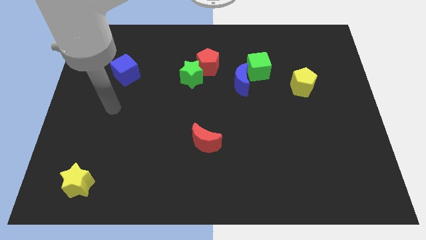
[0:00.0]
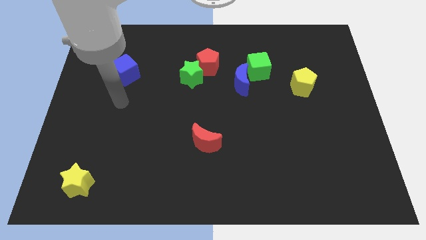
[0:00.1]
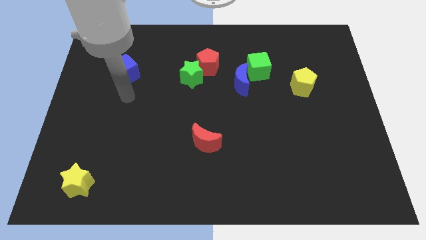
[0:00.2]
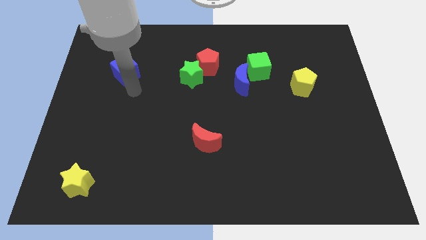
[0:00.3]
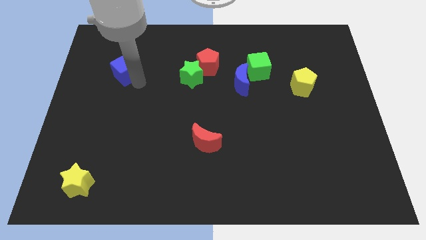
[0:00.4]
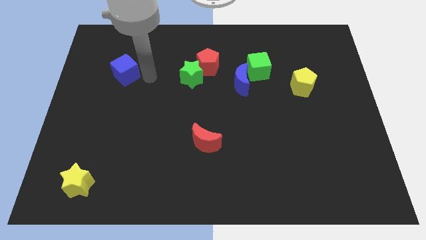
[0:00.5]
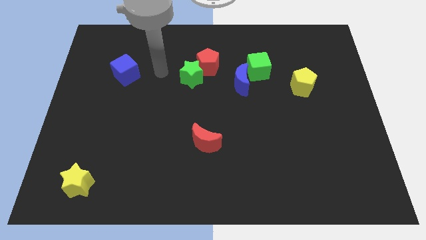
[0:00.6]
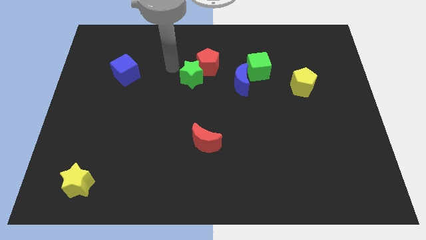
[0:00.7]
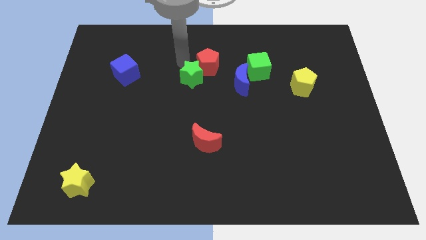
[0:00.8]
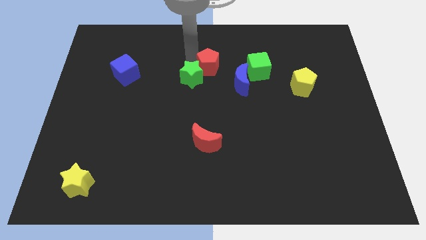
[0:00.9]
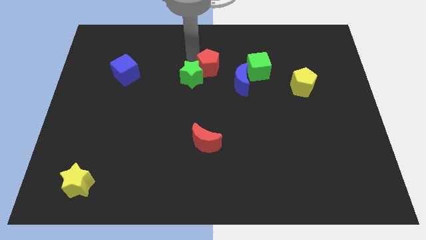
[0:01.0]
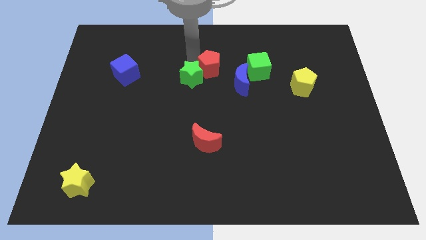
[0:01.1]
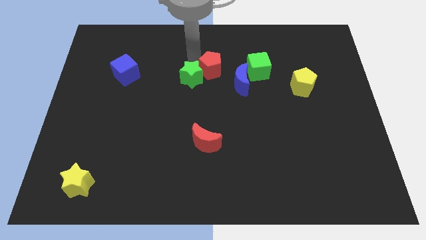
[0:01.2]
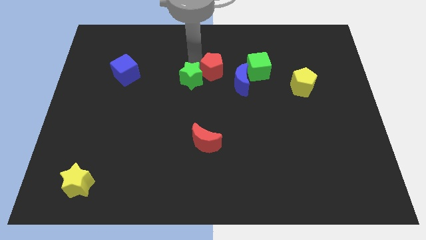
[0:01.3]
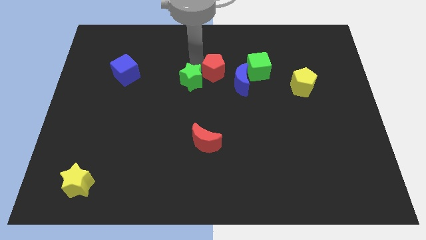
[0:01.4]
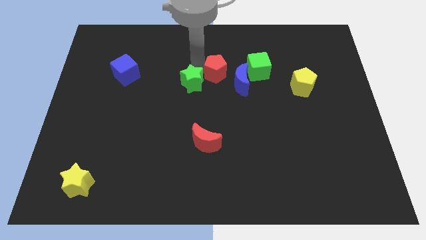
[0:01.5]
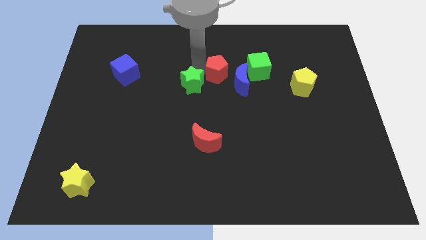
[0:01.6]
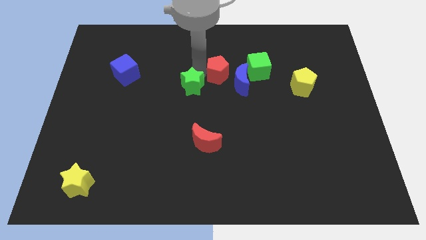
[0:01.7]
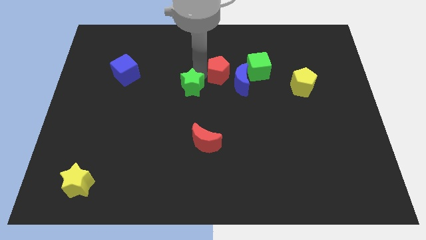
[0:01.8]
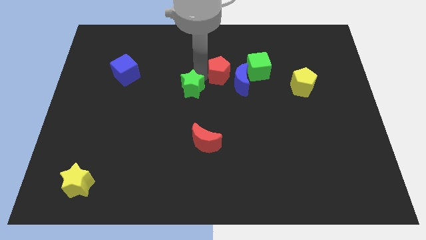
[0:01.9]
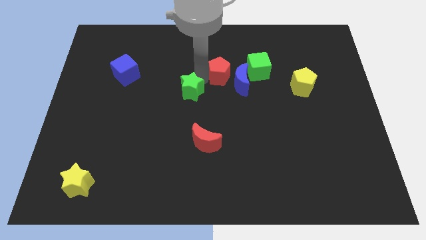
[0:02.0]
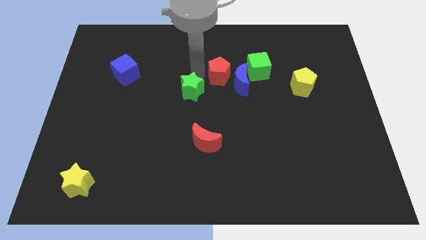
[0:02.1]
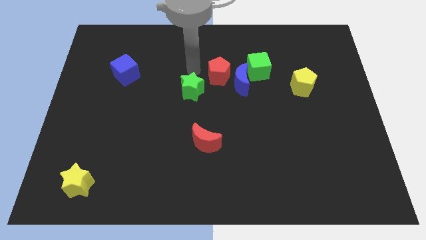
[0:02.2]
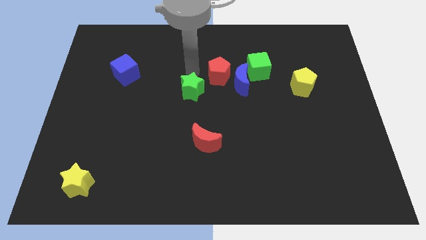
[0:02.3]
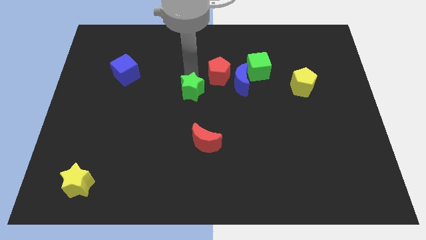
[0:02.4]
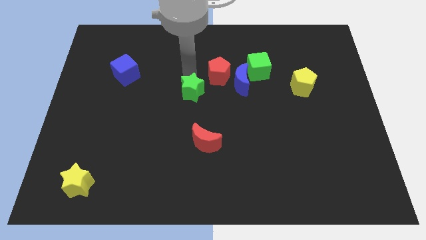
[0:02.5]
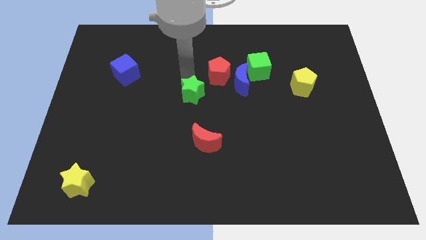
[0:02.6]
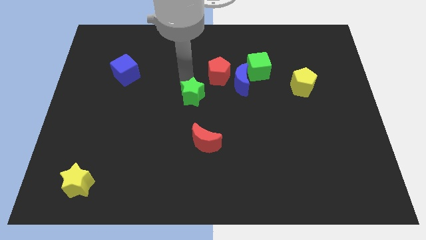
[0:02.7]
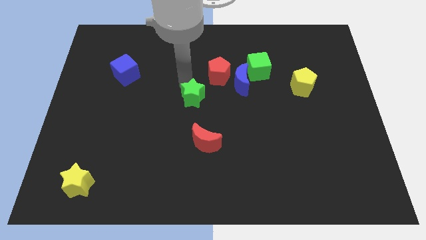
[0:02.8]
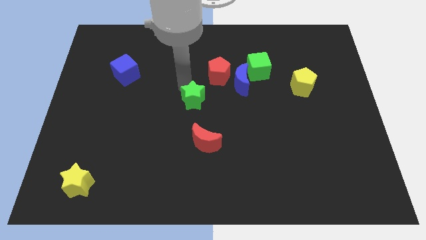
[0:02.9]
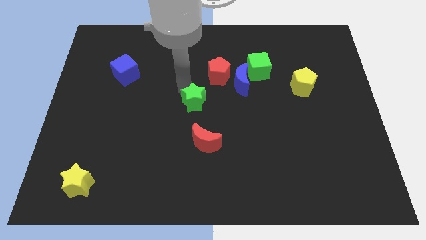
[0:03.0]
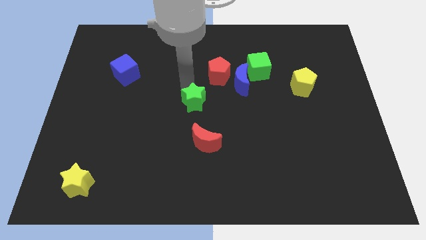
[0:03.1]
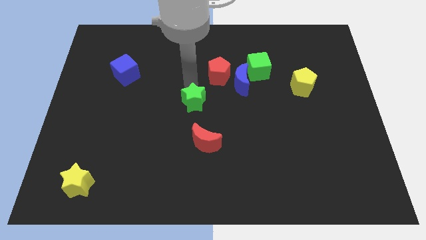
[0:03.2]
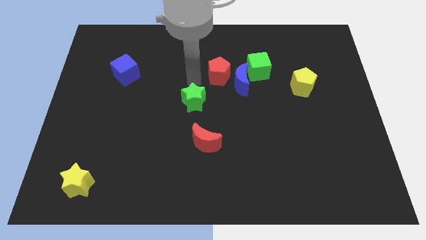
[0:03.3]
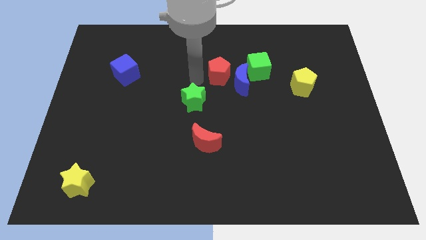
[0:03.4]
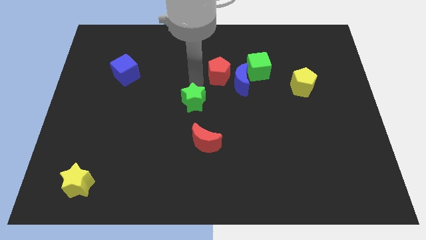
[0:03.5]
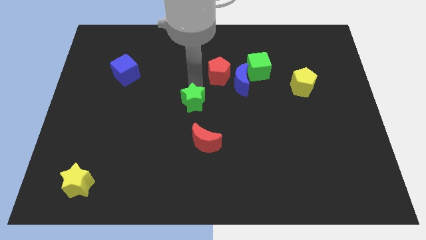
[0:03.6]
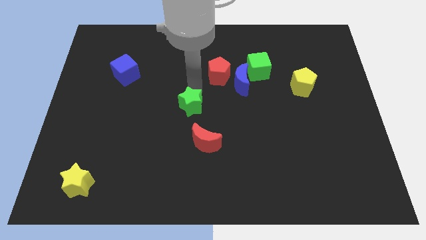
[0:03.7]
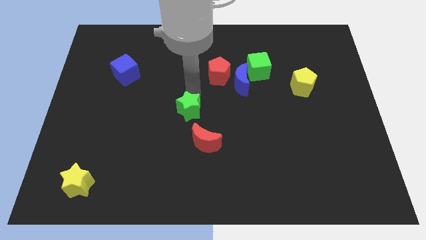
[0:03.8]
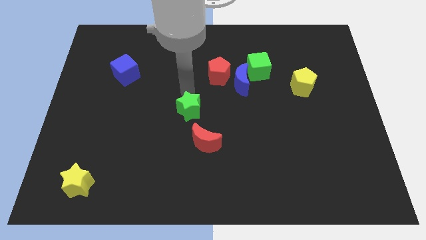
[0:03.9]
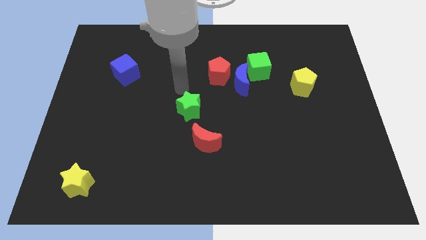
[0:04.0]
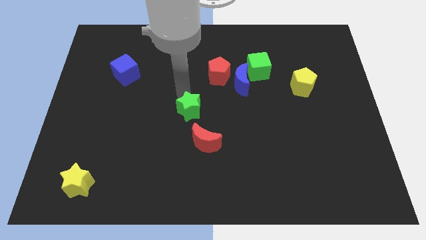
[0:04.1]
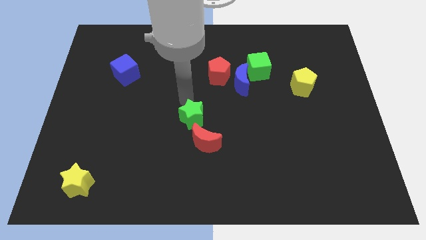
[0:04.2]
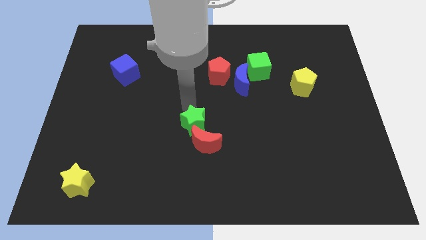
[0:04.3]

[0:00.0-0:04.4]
slide the green star next to the red moon

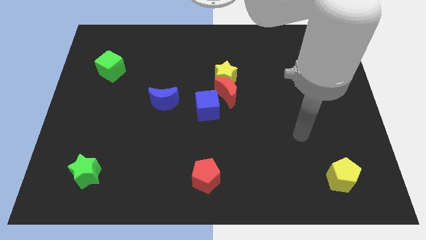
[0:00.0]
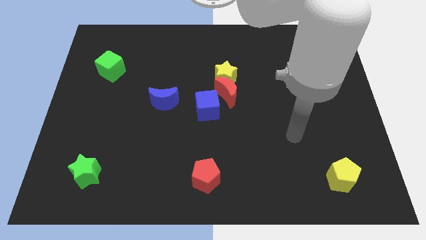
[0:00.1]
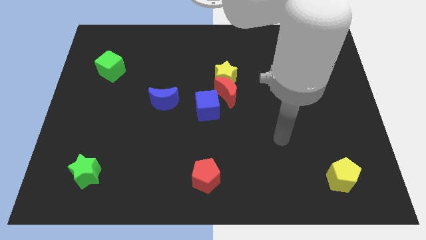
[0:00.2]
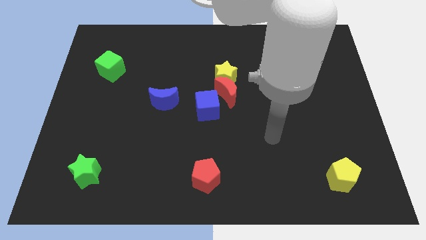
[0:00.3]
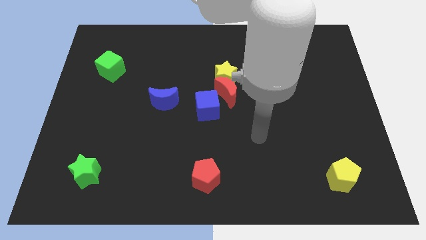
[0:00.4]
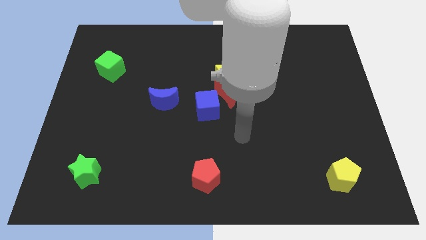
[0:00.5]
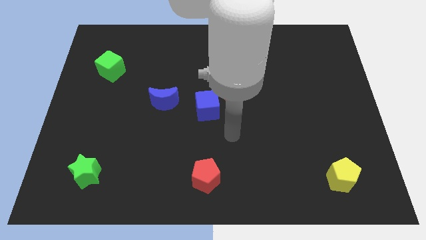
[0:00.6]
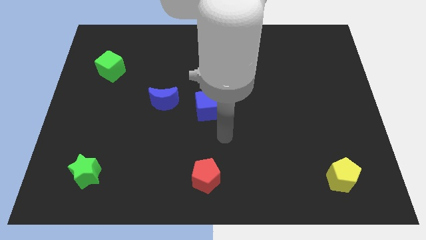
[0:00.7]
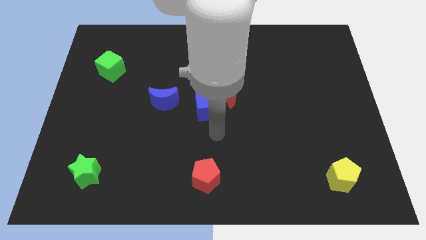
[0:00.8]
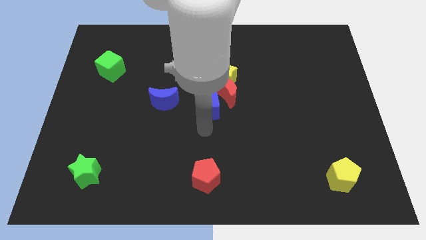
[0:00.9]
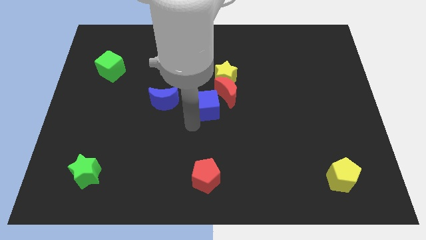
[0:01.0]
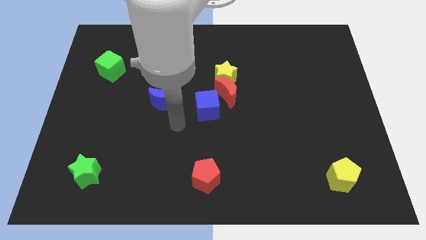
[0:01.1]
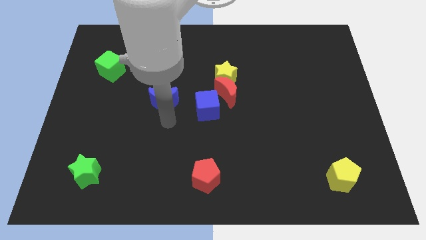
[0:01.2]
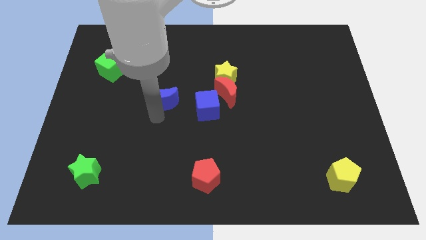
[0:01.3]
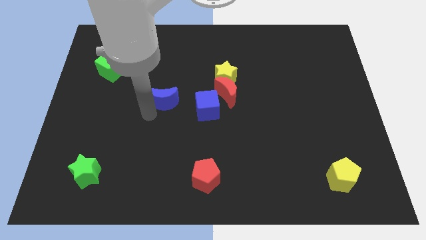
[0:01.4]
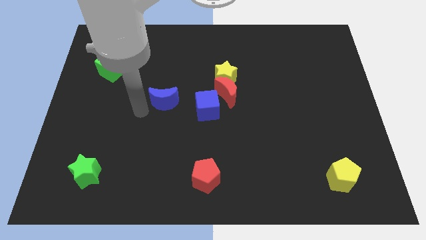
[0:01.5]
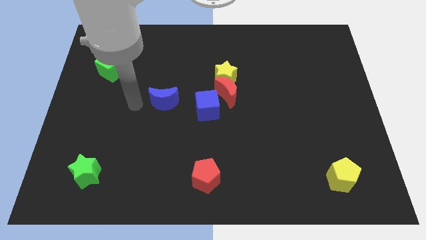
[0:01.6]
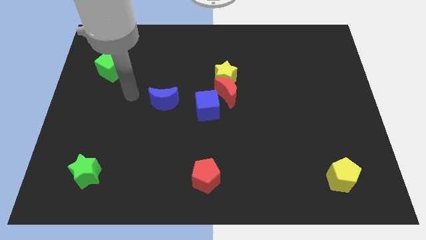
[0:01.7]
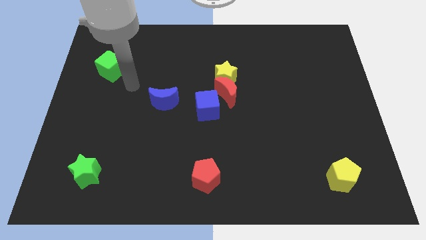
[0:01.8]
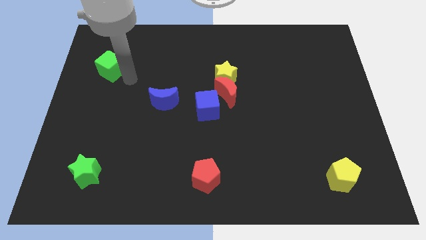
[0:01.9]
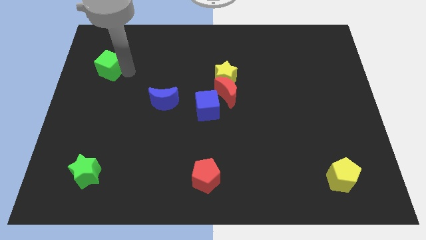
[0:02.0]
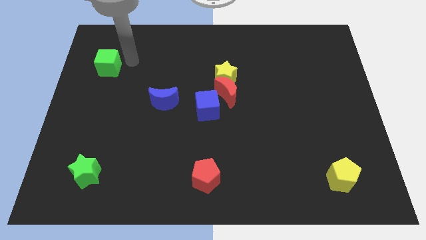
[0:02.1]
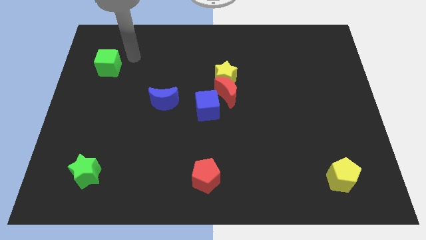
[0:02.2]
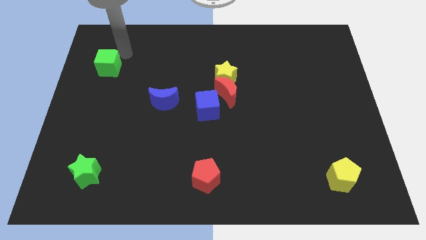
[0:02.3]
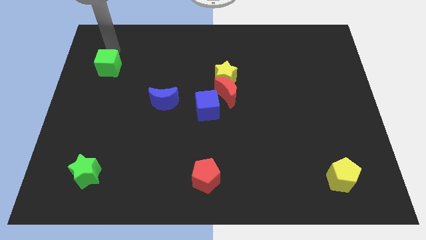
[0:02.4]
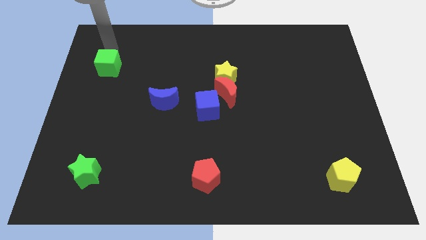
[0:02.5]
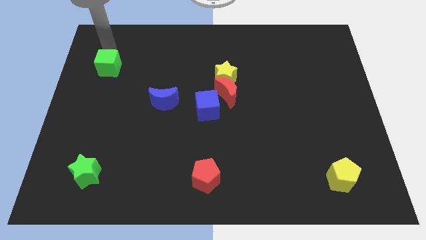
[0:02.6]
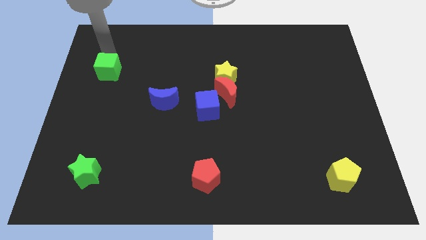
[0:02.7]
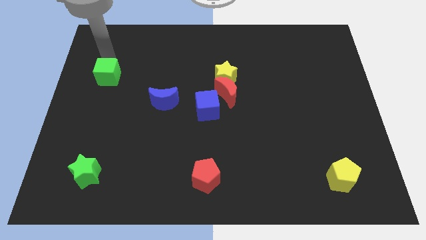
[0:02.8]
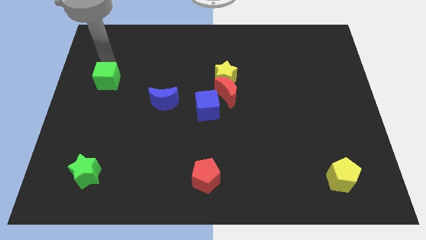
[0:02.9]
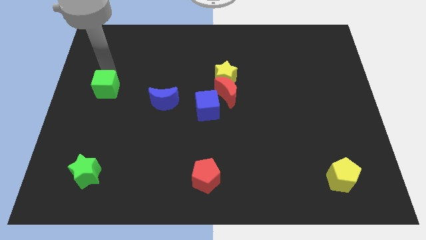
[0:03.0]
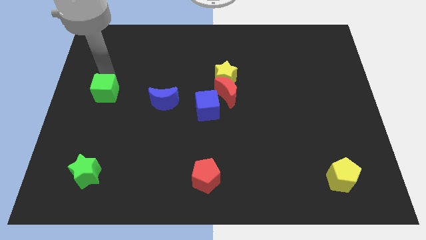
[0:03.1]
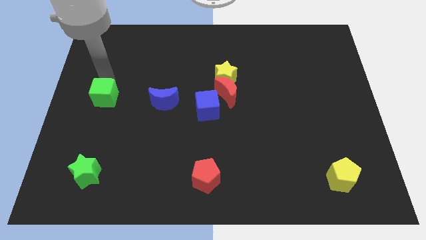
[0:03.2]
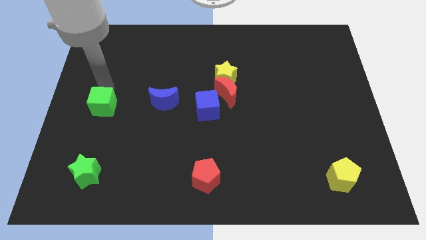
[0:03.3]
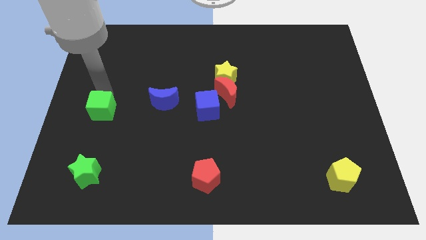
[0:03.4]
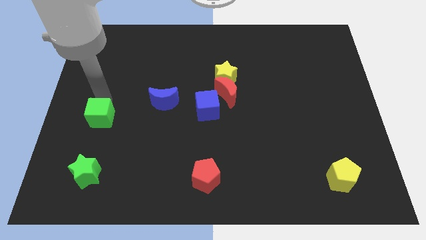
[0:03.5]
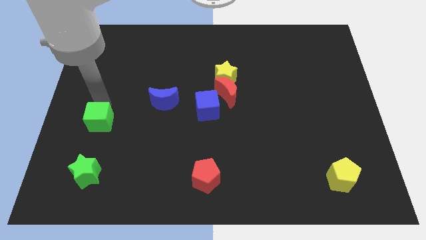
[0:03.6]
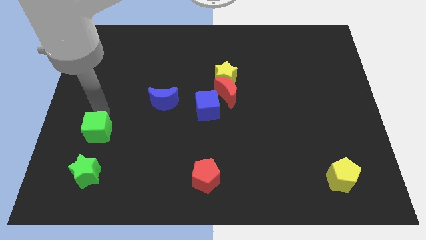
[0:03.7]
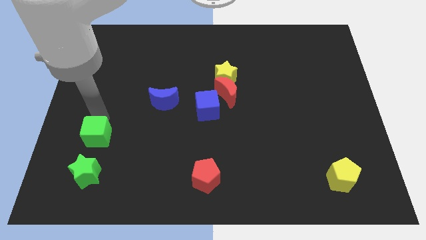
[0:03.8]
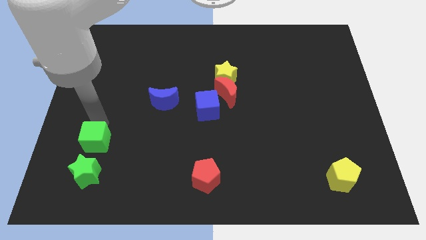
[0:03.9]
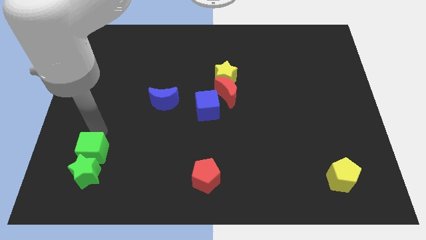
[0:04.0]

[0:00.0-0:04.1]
move the green cube next to the green star
